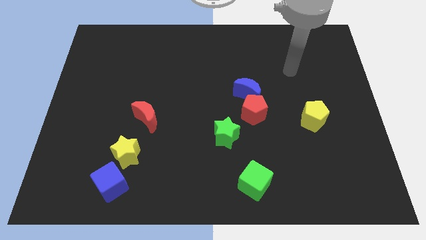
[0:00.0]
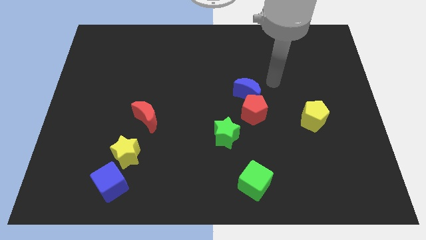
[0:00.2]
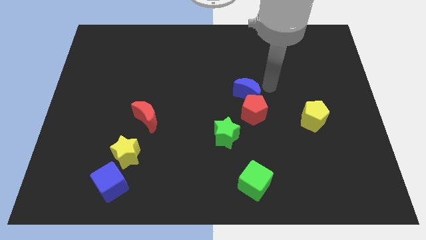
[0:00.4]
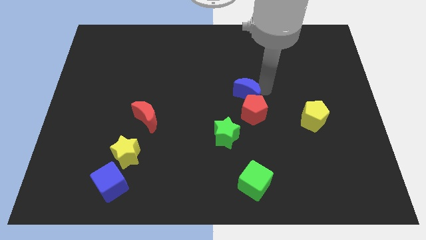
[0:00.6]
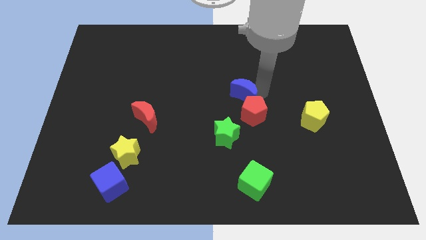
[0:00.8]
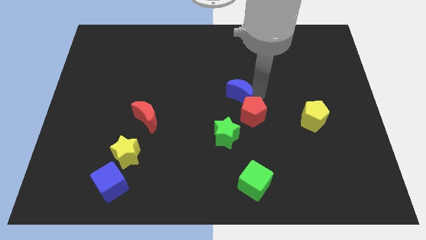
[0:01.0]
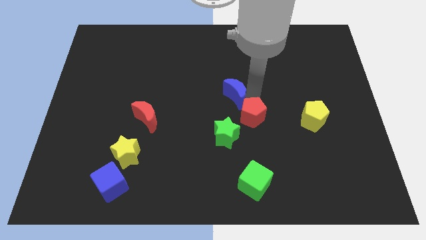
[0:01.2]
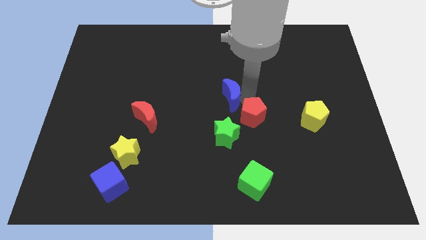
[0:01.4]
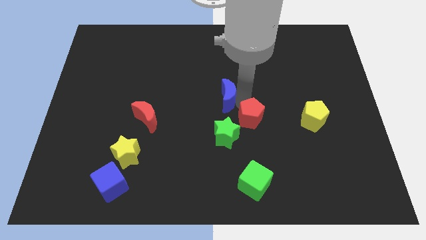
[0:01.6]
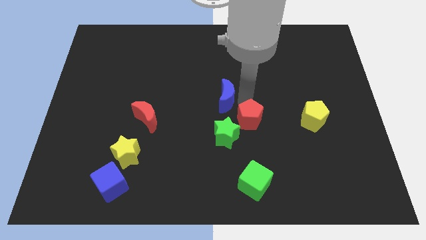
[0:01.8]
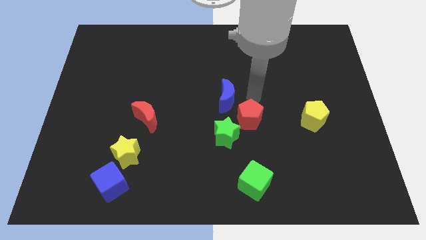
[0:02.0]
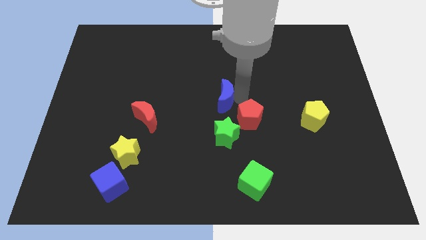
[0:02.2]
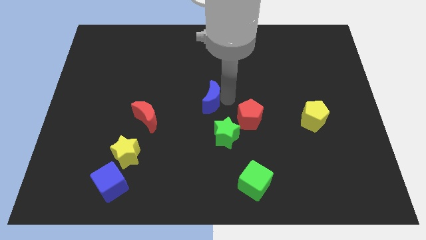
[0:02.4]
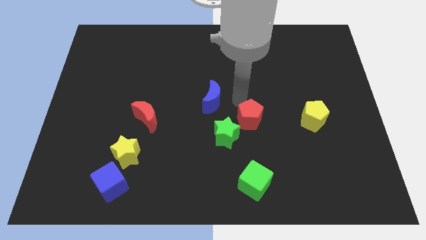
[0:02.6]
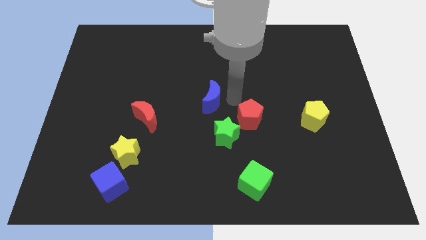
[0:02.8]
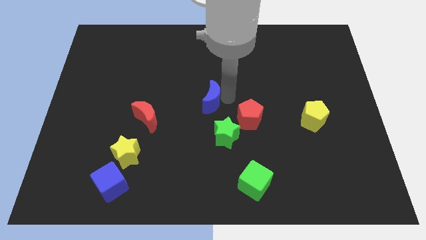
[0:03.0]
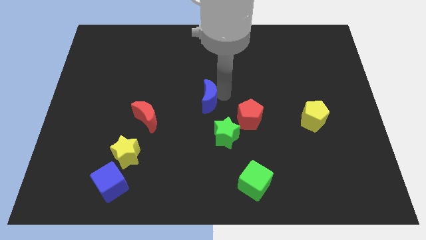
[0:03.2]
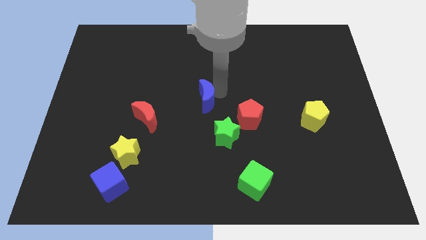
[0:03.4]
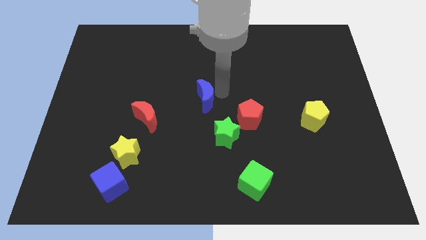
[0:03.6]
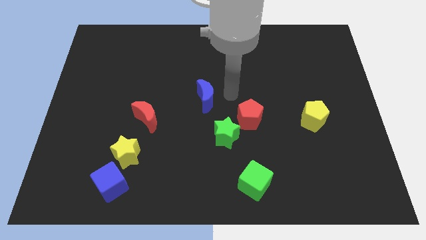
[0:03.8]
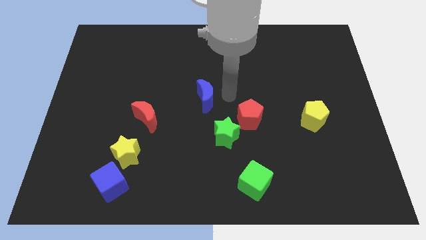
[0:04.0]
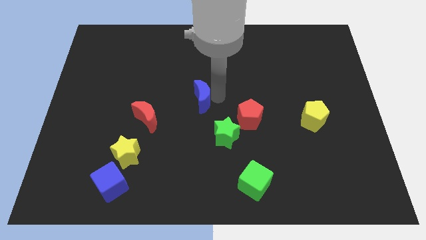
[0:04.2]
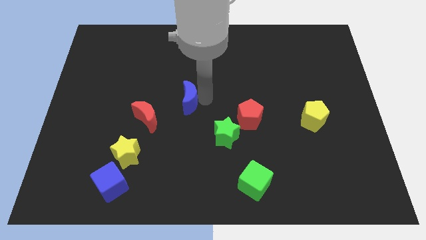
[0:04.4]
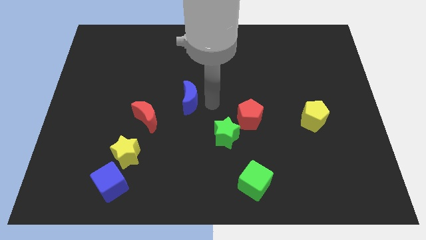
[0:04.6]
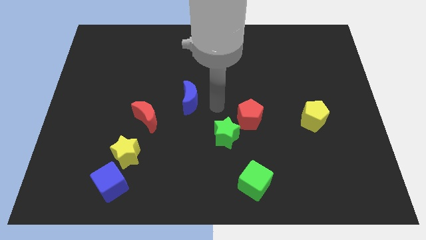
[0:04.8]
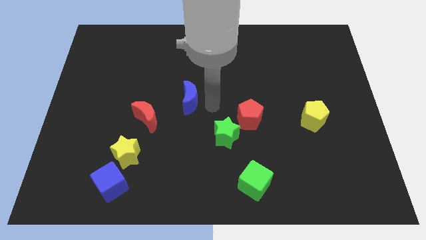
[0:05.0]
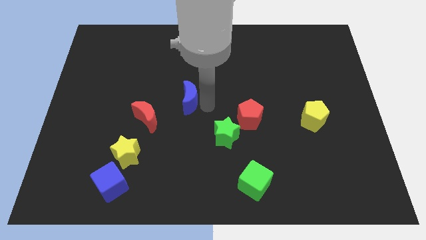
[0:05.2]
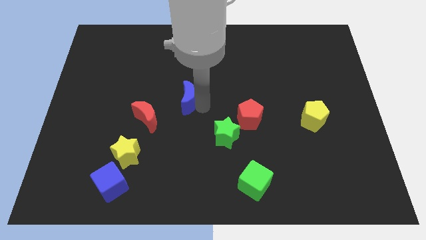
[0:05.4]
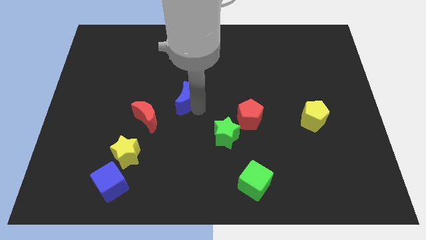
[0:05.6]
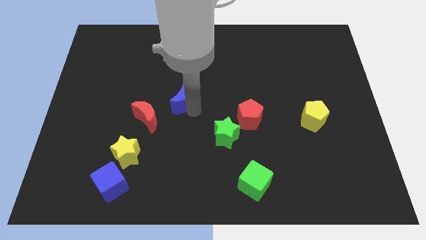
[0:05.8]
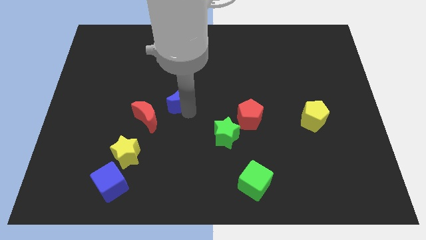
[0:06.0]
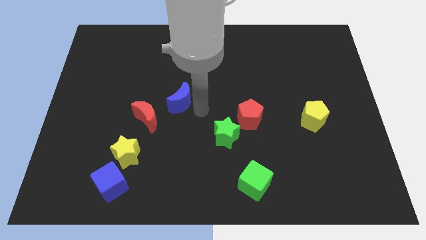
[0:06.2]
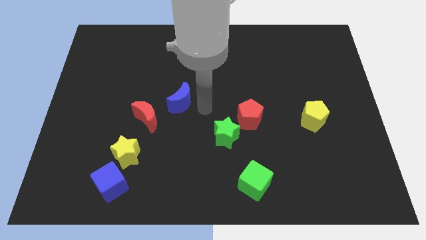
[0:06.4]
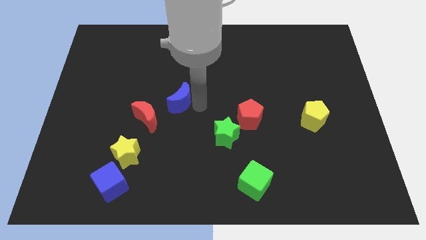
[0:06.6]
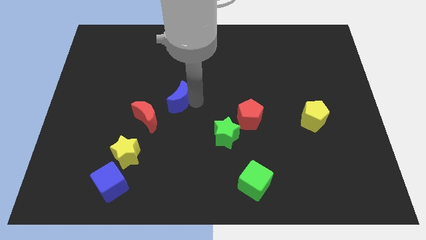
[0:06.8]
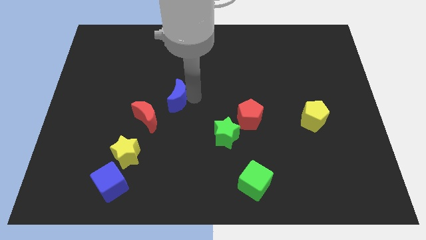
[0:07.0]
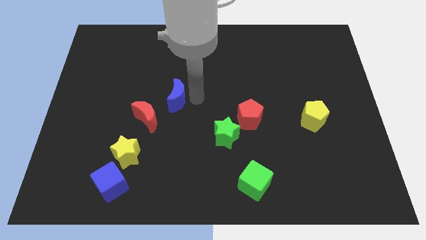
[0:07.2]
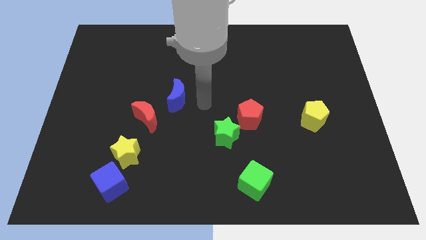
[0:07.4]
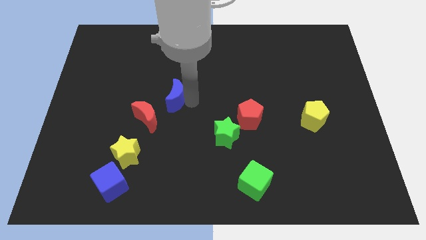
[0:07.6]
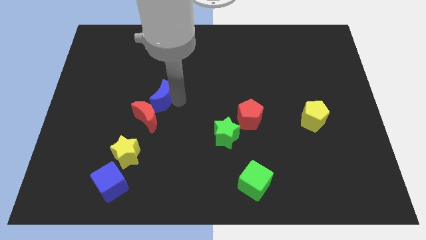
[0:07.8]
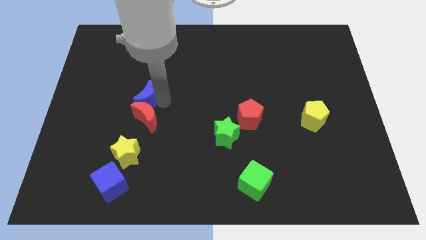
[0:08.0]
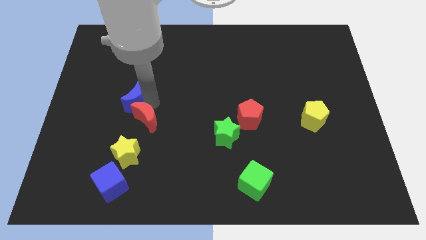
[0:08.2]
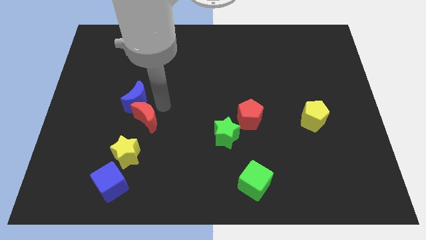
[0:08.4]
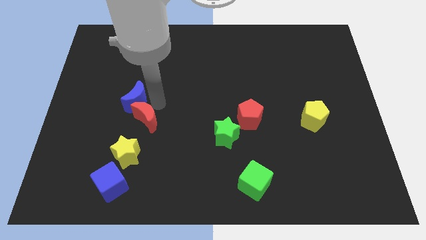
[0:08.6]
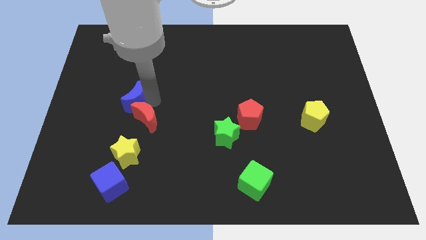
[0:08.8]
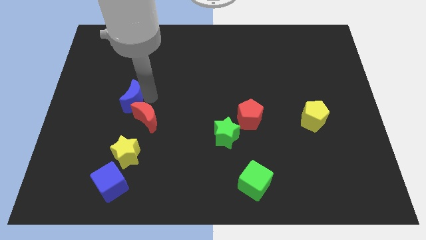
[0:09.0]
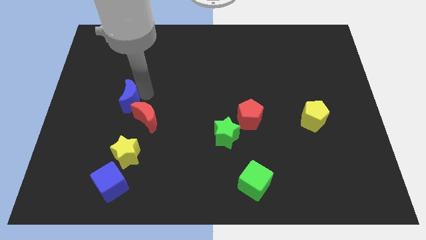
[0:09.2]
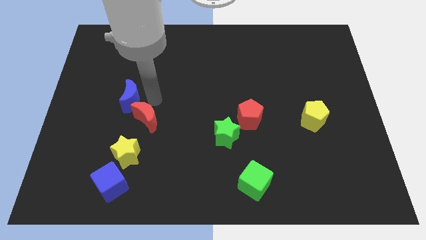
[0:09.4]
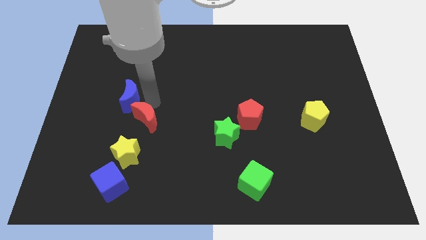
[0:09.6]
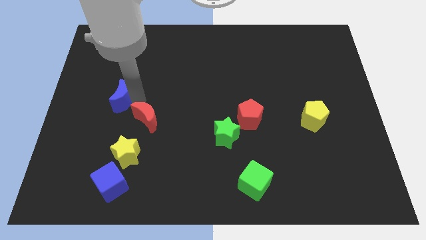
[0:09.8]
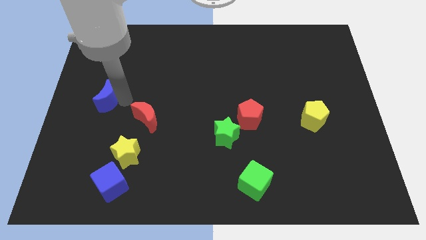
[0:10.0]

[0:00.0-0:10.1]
push the blue moon to the left side of the board

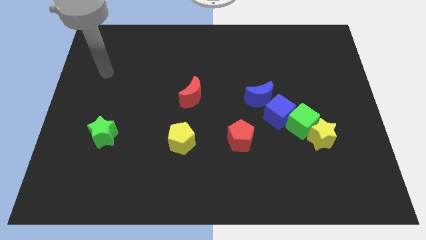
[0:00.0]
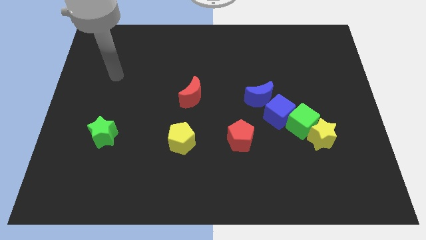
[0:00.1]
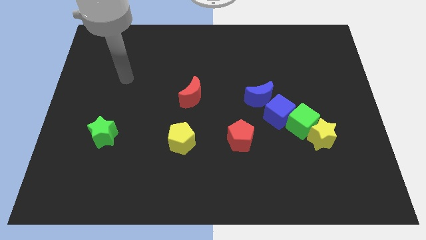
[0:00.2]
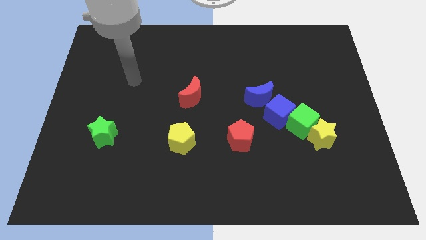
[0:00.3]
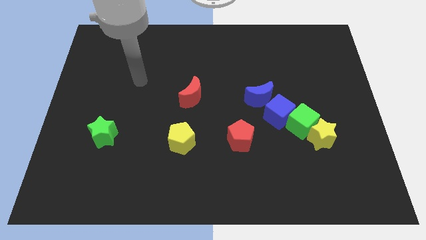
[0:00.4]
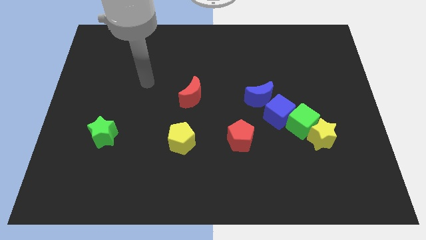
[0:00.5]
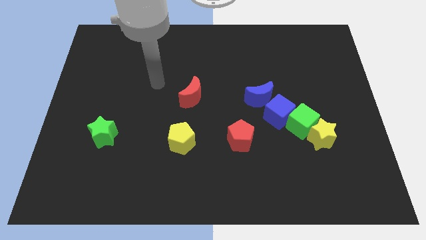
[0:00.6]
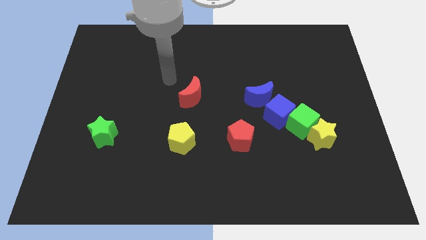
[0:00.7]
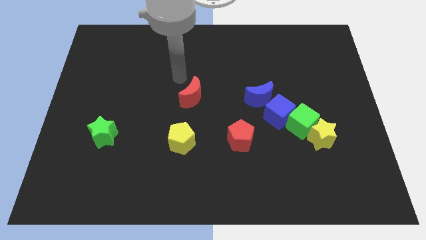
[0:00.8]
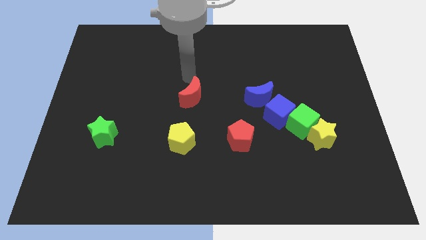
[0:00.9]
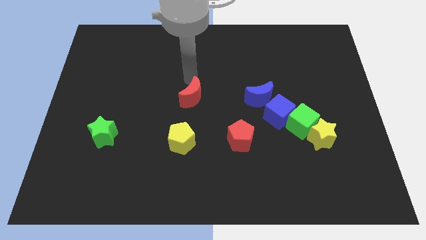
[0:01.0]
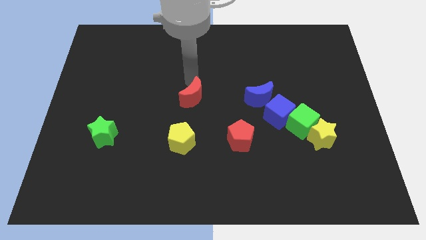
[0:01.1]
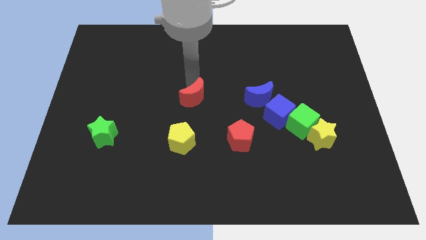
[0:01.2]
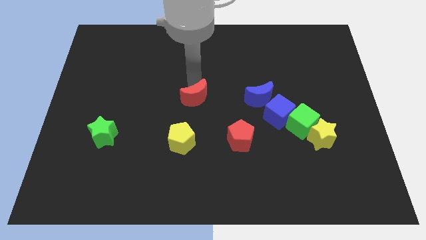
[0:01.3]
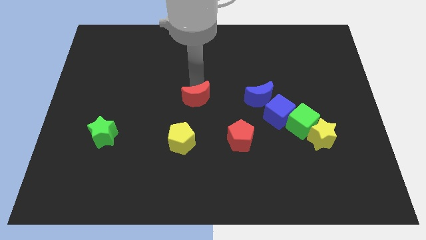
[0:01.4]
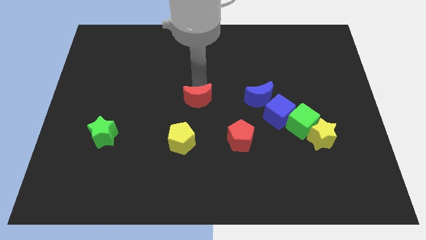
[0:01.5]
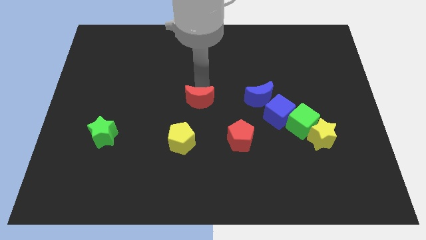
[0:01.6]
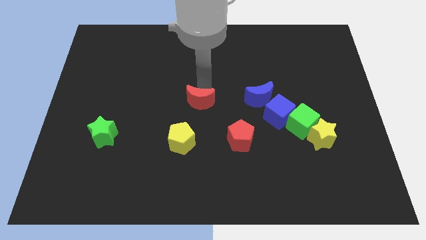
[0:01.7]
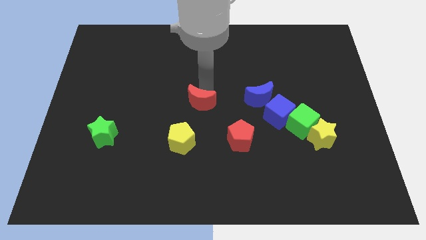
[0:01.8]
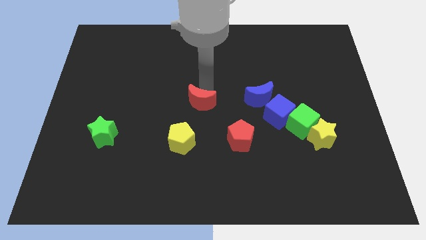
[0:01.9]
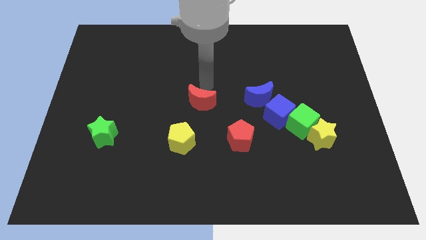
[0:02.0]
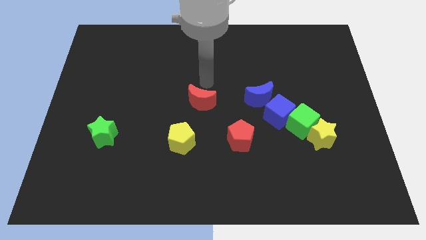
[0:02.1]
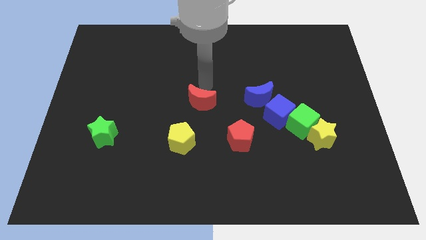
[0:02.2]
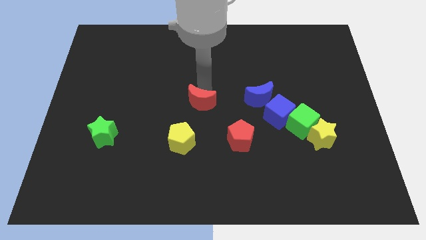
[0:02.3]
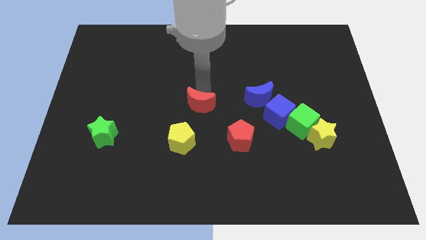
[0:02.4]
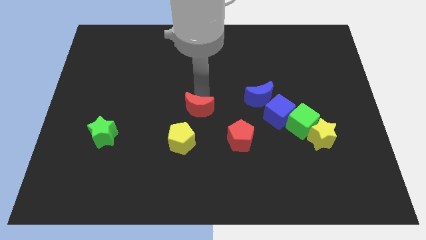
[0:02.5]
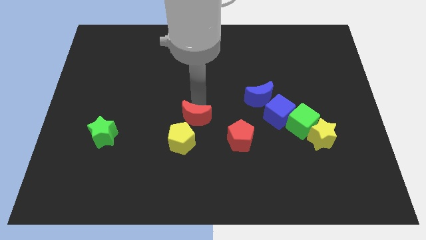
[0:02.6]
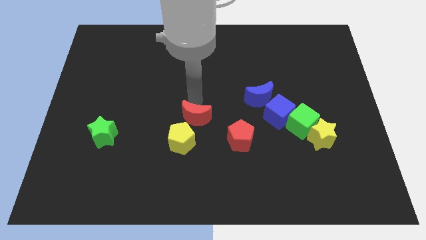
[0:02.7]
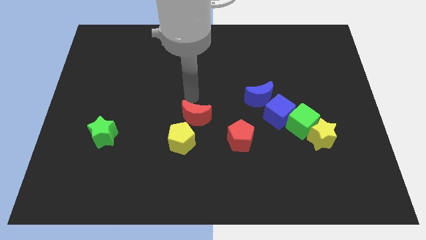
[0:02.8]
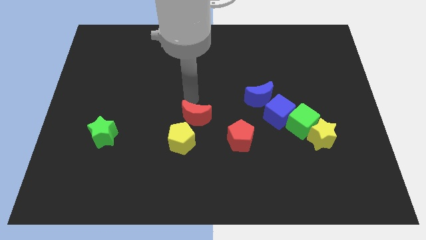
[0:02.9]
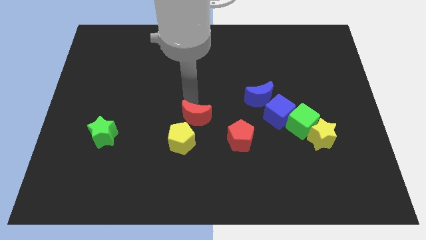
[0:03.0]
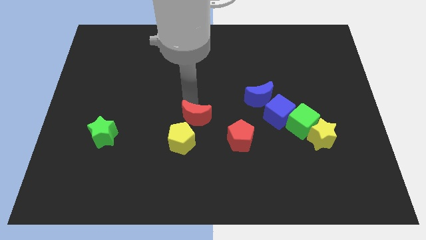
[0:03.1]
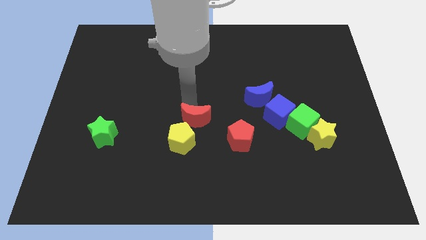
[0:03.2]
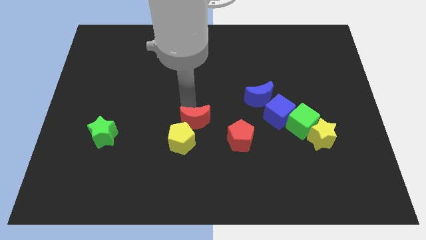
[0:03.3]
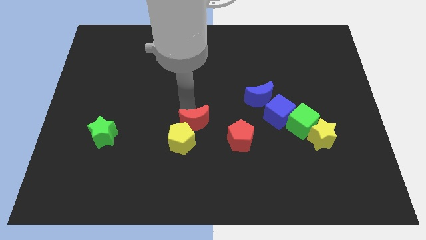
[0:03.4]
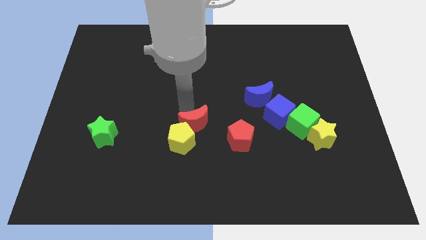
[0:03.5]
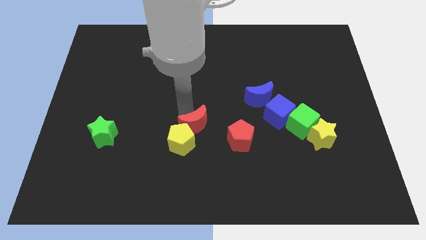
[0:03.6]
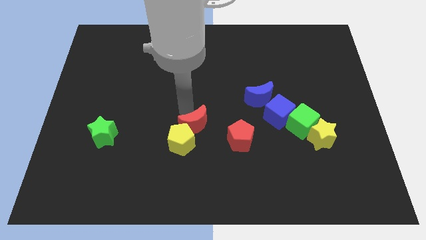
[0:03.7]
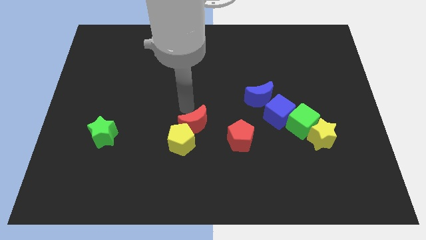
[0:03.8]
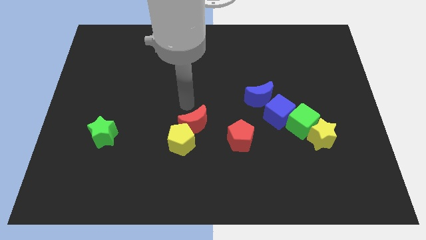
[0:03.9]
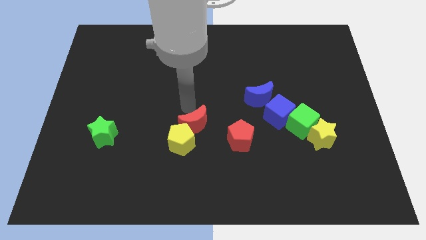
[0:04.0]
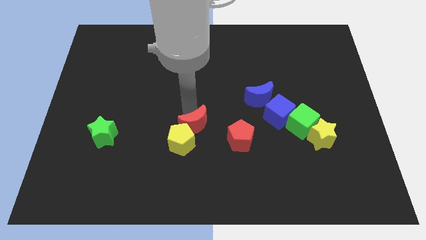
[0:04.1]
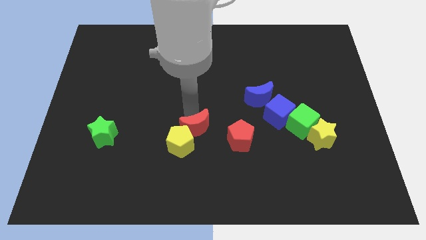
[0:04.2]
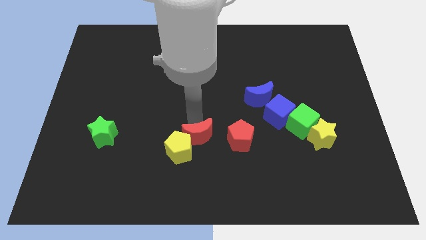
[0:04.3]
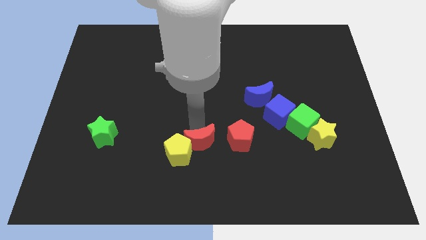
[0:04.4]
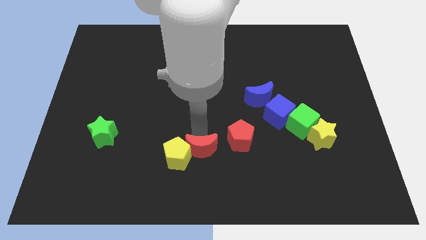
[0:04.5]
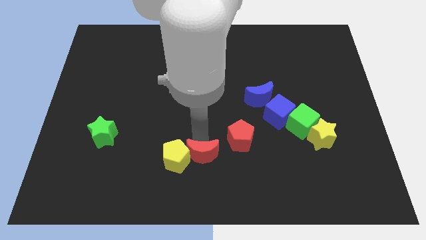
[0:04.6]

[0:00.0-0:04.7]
slide the red moon to the bottom
